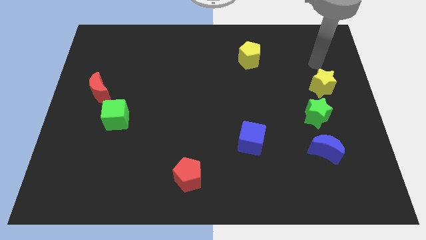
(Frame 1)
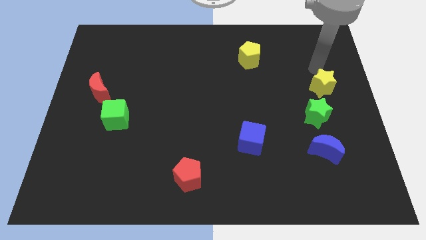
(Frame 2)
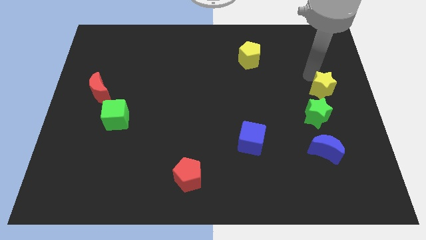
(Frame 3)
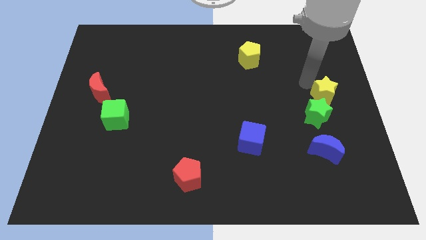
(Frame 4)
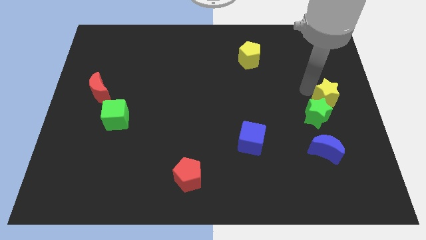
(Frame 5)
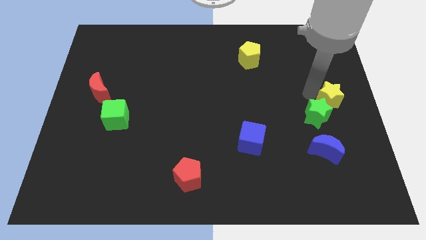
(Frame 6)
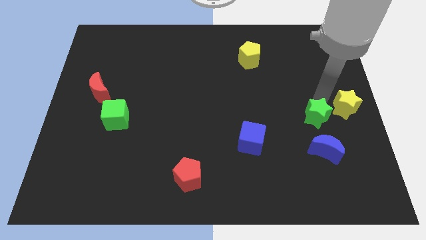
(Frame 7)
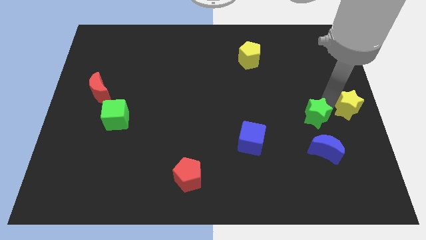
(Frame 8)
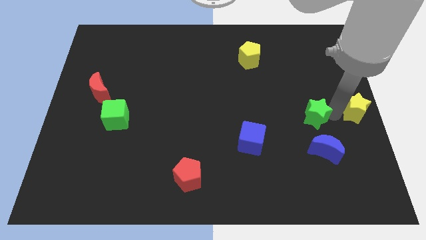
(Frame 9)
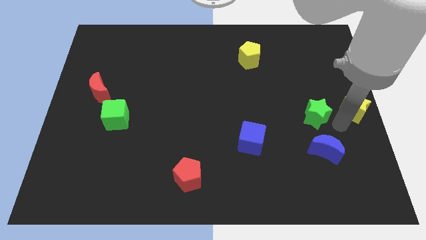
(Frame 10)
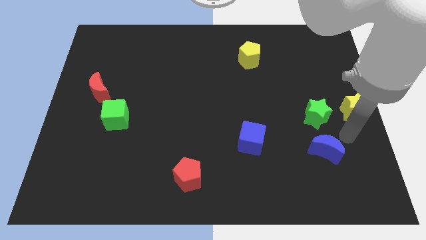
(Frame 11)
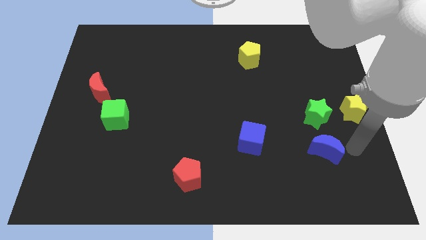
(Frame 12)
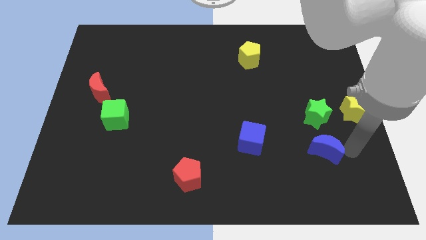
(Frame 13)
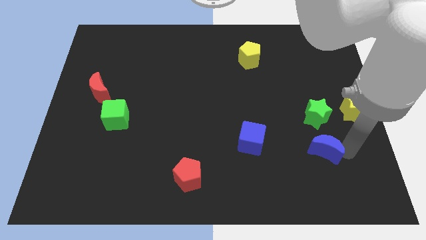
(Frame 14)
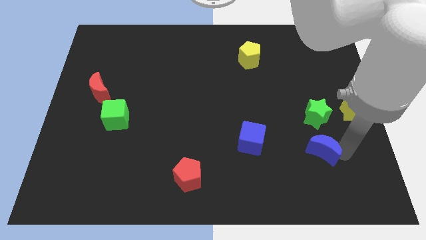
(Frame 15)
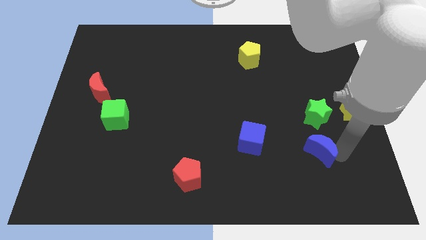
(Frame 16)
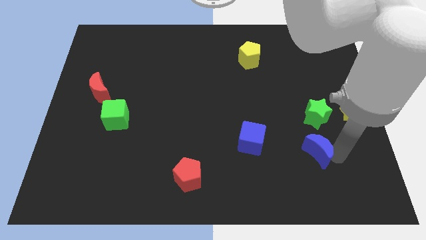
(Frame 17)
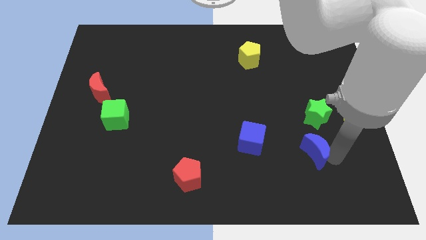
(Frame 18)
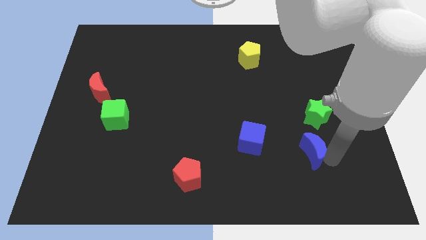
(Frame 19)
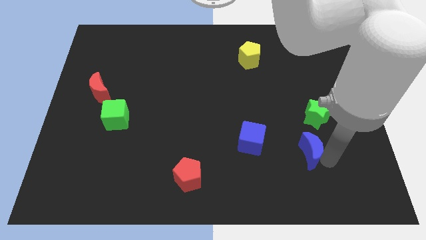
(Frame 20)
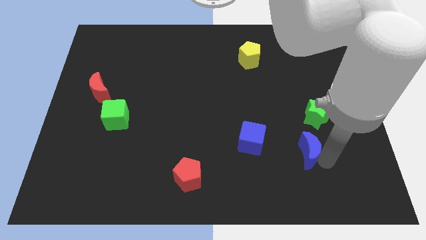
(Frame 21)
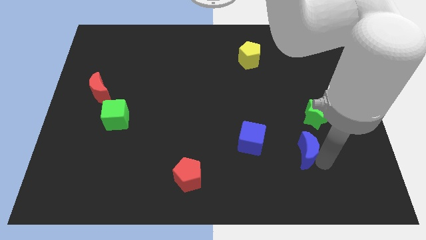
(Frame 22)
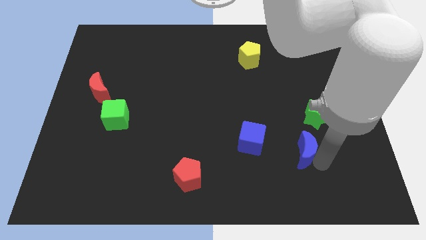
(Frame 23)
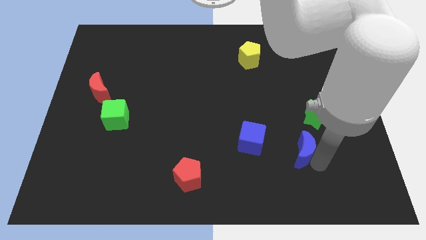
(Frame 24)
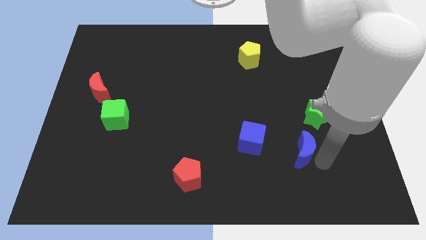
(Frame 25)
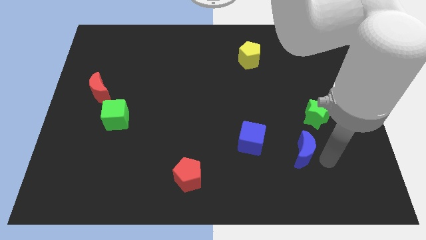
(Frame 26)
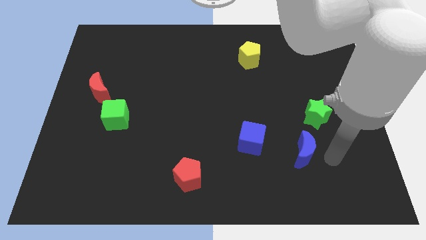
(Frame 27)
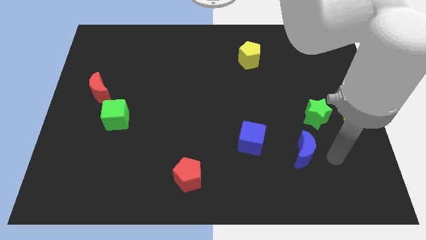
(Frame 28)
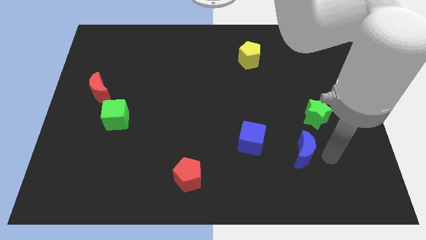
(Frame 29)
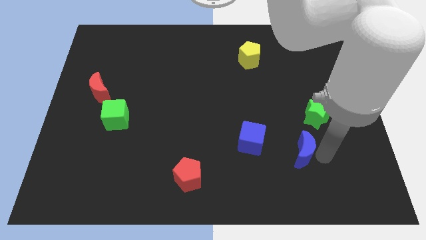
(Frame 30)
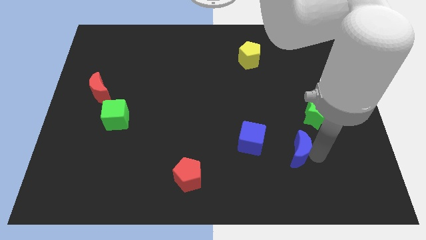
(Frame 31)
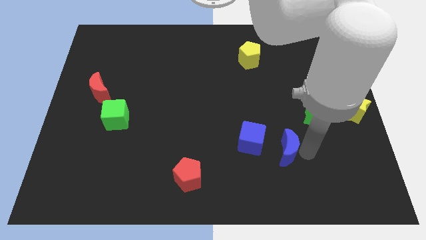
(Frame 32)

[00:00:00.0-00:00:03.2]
slightly push the blue moon left

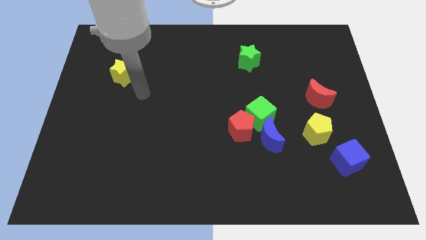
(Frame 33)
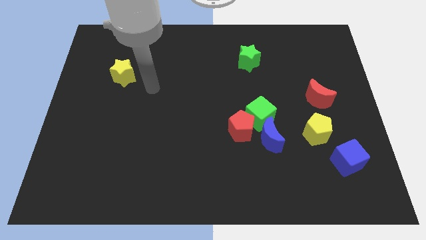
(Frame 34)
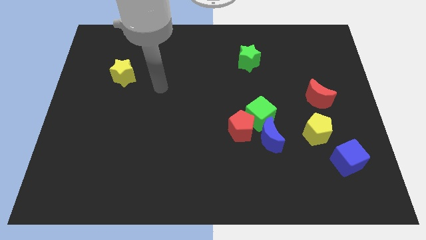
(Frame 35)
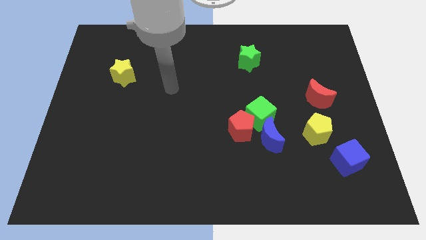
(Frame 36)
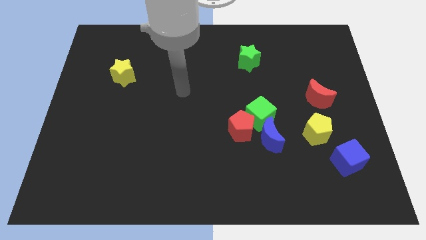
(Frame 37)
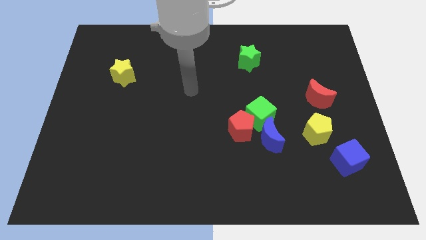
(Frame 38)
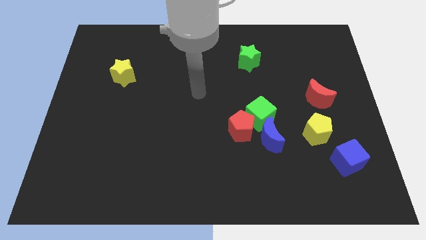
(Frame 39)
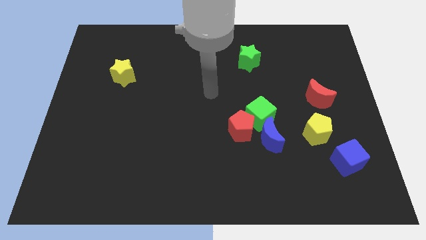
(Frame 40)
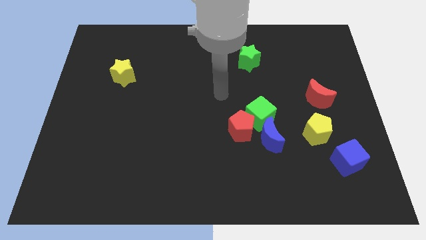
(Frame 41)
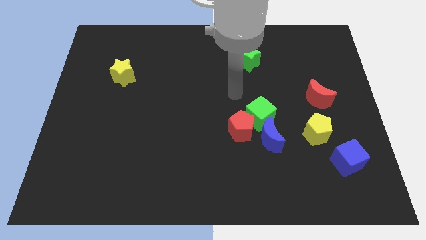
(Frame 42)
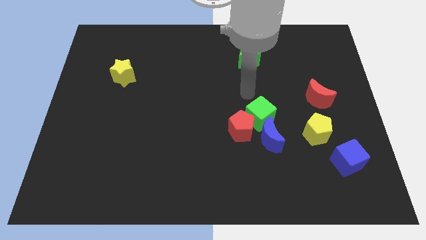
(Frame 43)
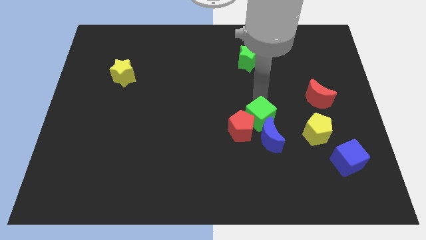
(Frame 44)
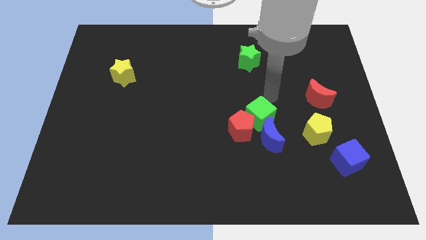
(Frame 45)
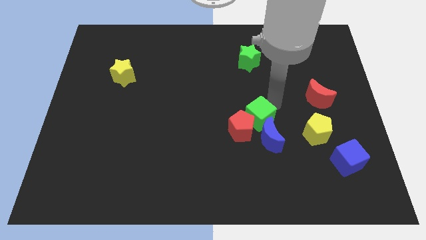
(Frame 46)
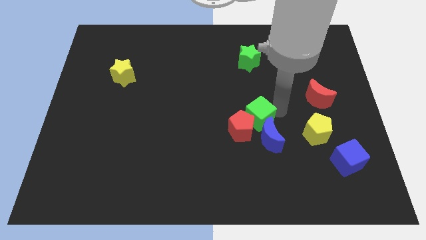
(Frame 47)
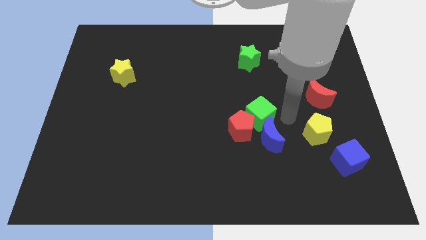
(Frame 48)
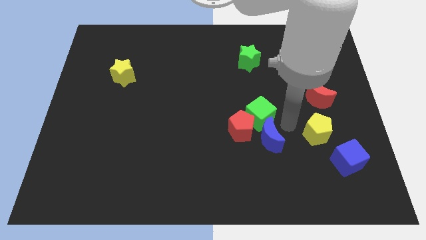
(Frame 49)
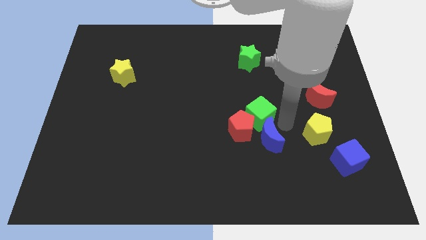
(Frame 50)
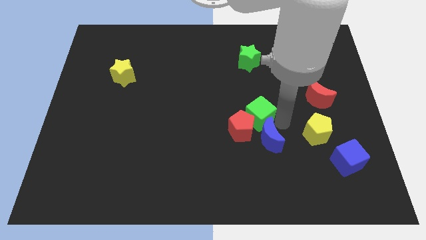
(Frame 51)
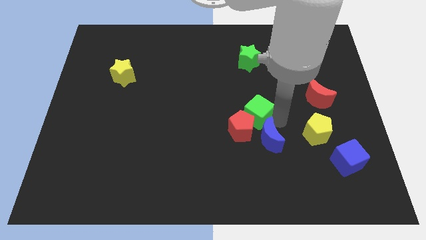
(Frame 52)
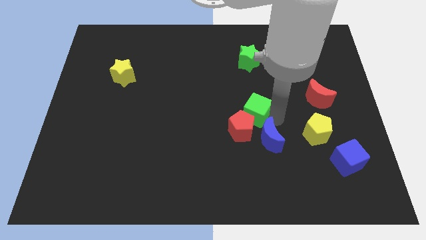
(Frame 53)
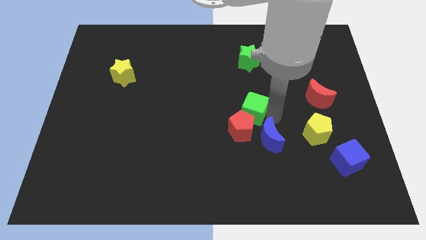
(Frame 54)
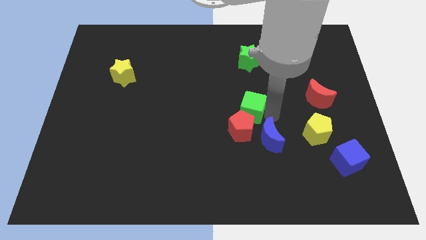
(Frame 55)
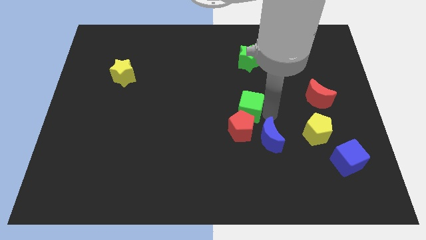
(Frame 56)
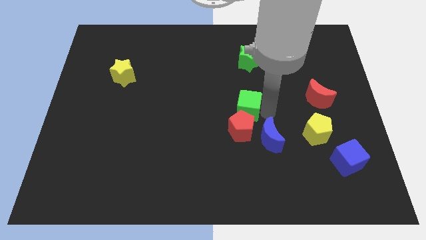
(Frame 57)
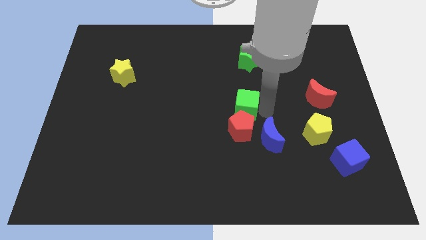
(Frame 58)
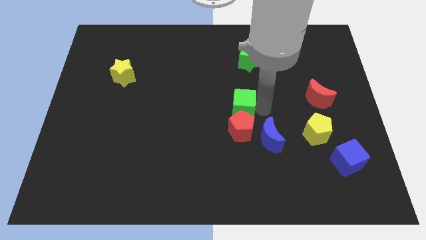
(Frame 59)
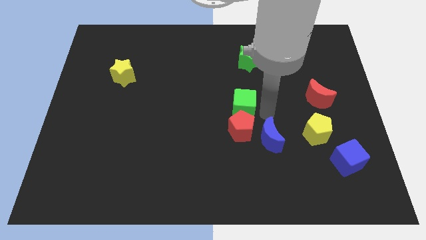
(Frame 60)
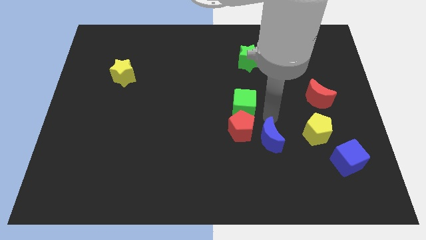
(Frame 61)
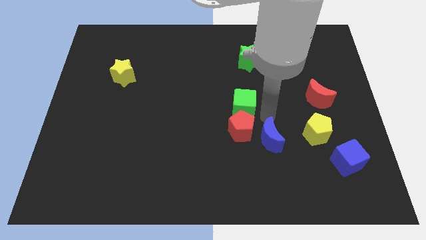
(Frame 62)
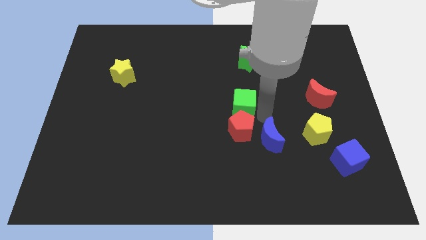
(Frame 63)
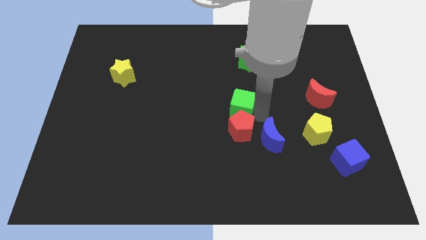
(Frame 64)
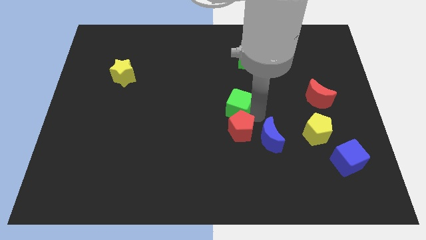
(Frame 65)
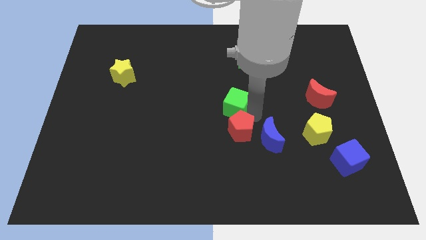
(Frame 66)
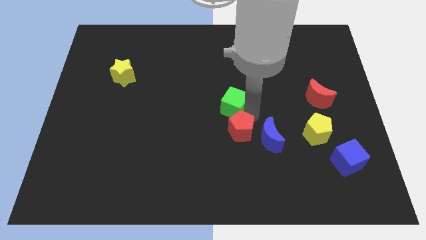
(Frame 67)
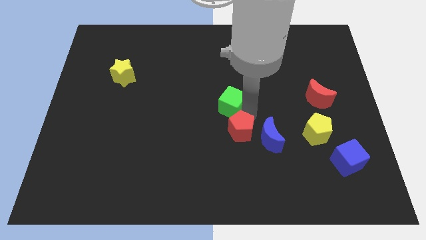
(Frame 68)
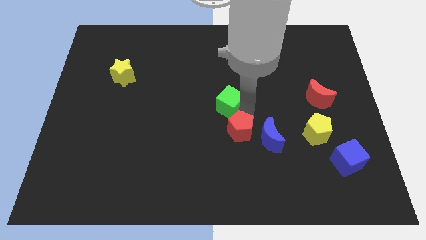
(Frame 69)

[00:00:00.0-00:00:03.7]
move the green cube a little diagonally up and left

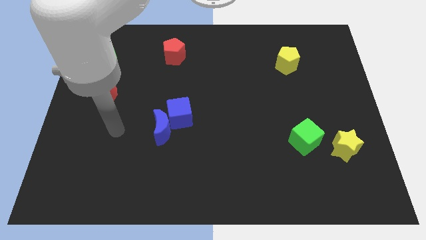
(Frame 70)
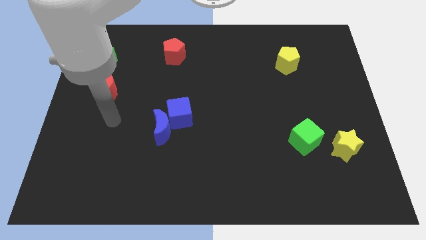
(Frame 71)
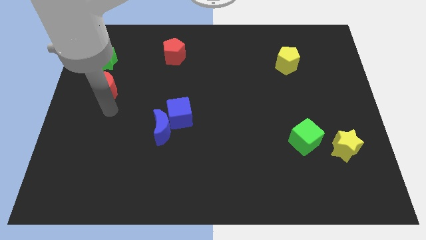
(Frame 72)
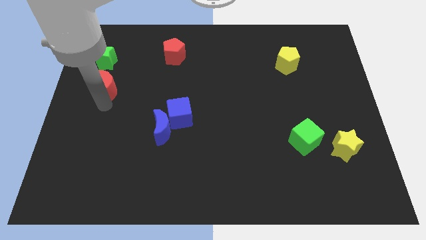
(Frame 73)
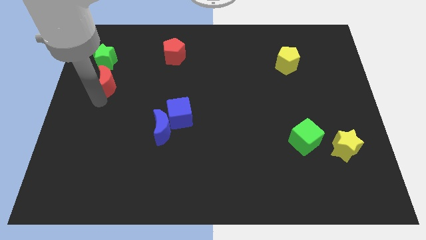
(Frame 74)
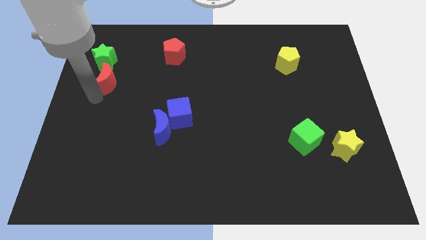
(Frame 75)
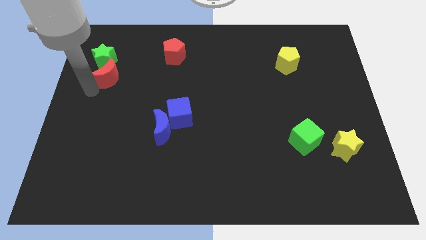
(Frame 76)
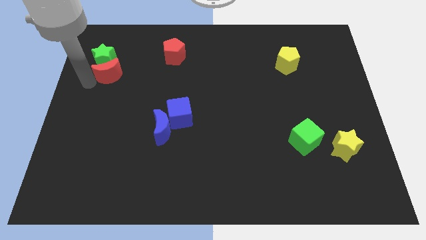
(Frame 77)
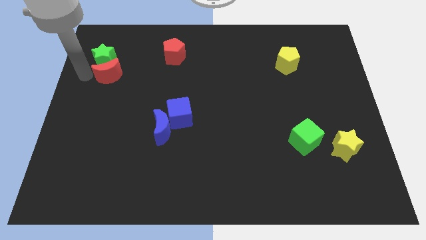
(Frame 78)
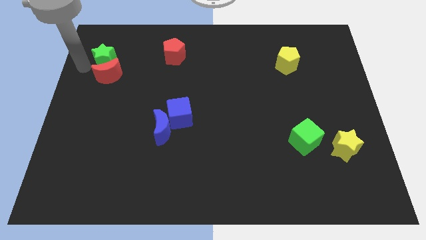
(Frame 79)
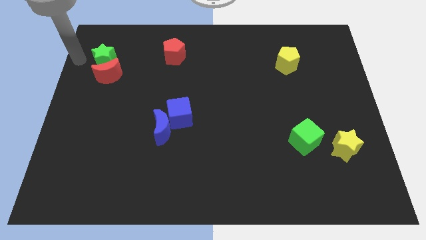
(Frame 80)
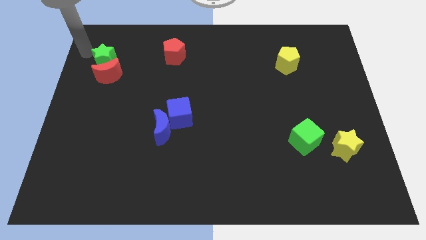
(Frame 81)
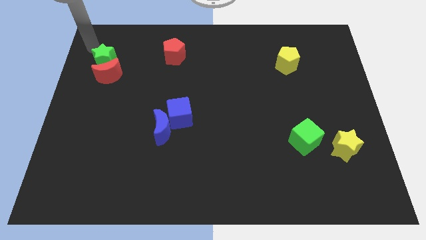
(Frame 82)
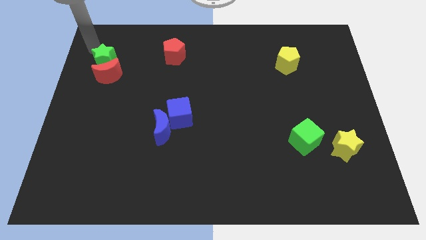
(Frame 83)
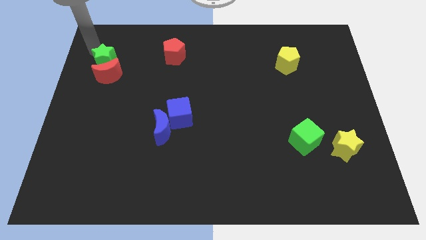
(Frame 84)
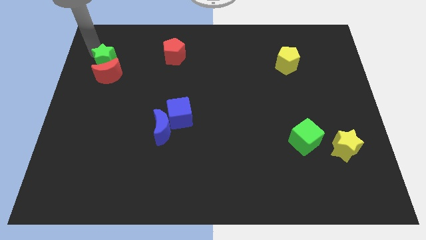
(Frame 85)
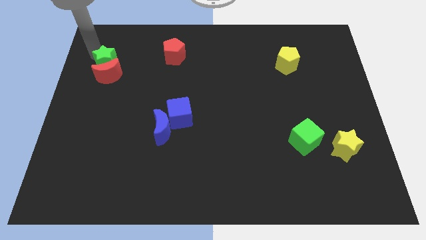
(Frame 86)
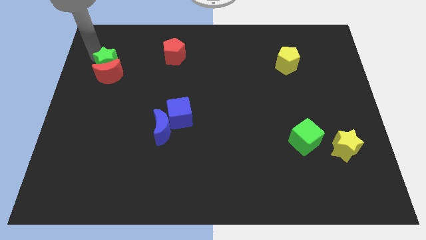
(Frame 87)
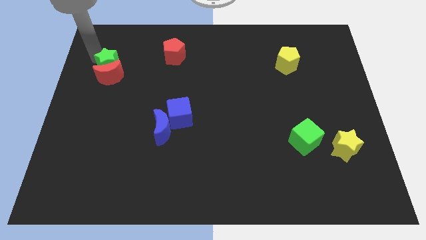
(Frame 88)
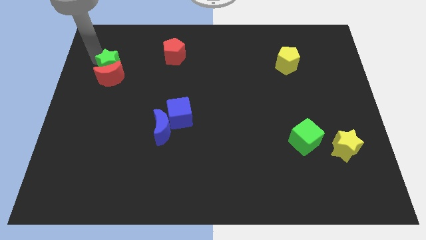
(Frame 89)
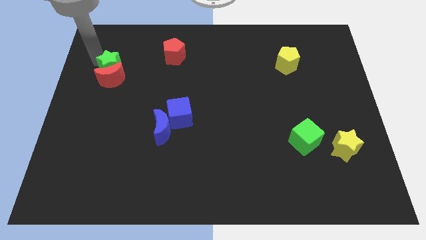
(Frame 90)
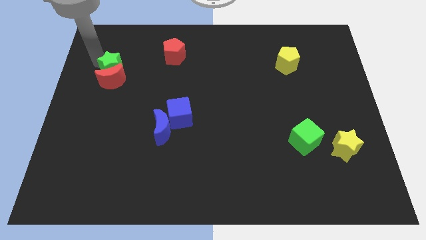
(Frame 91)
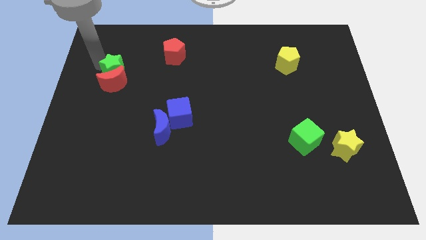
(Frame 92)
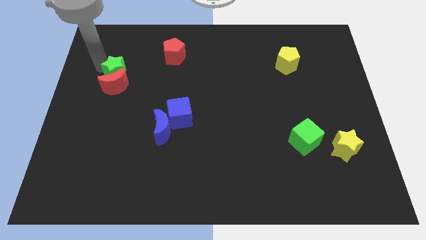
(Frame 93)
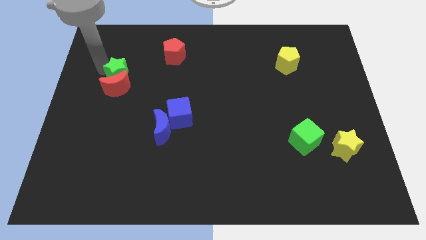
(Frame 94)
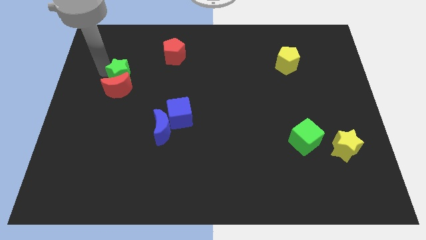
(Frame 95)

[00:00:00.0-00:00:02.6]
move the green star down and right diagonally a little
